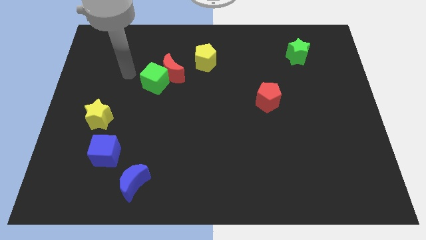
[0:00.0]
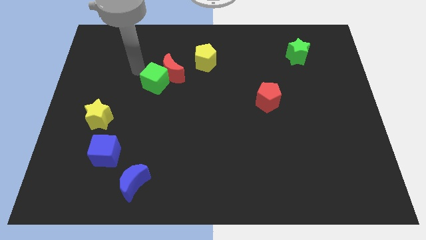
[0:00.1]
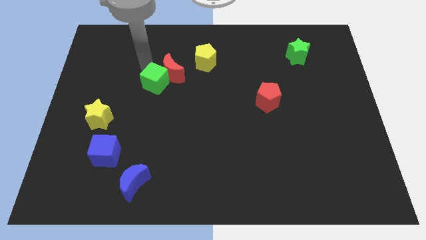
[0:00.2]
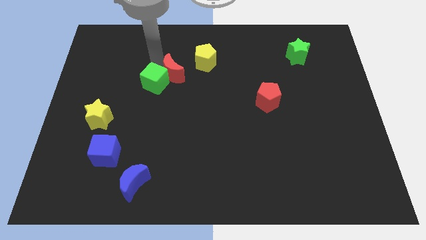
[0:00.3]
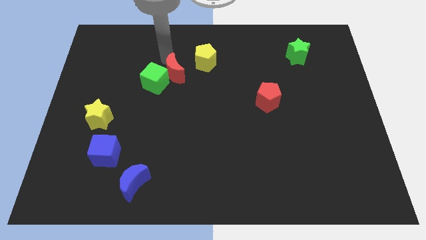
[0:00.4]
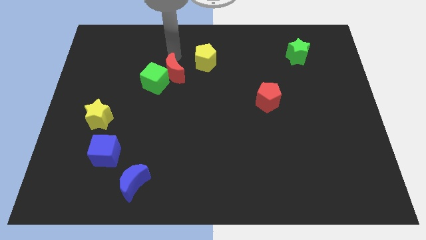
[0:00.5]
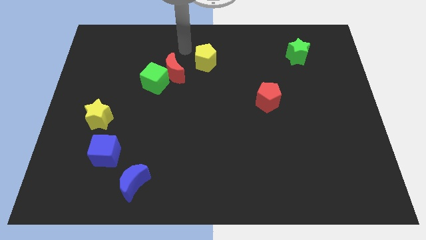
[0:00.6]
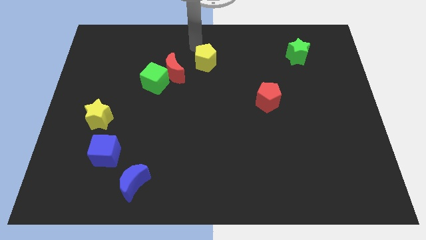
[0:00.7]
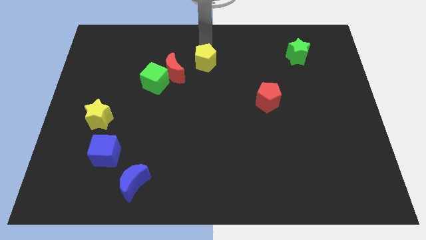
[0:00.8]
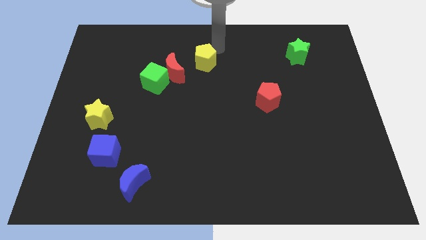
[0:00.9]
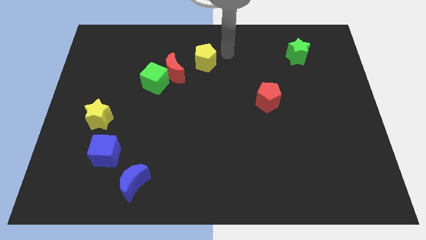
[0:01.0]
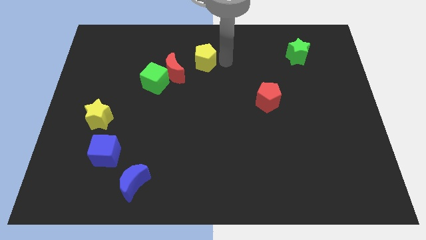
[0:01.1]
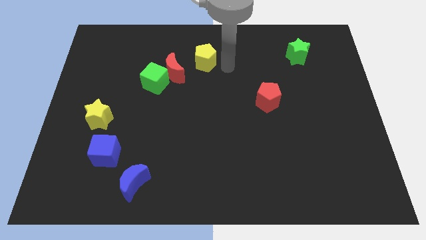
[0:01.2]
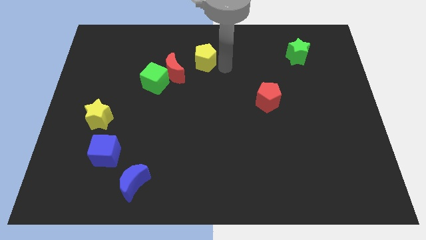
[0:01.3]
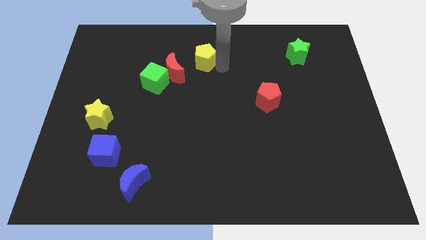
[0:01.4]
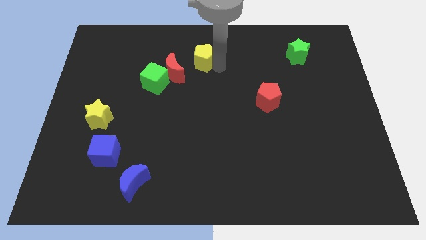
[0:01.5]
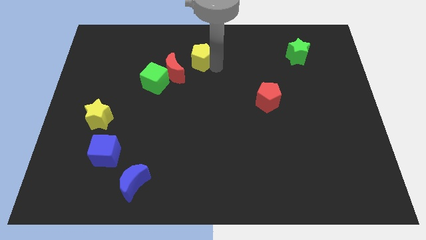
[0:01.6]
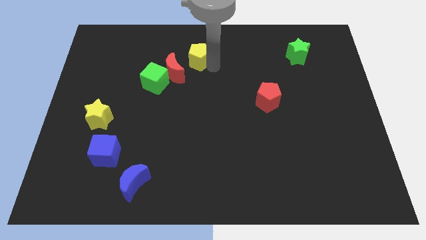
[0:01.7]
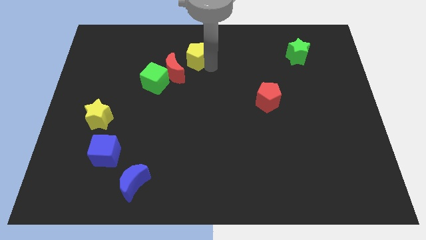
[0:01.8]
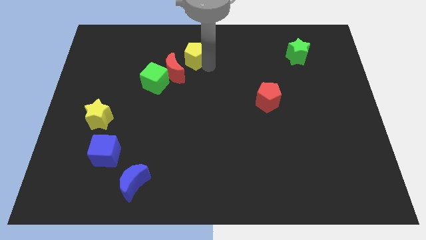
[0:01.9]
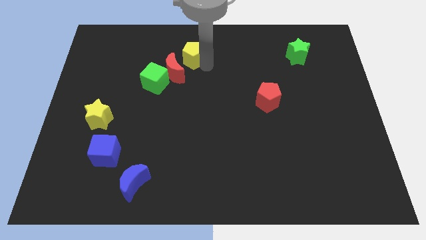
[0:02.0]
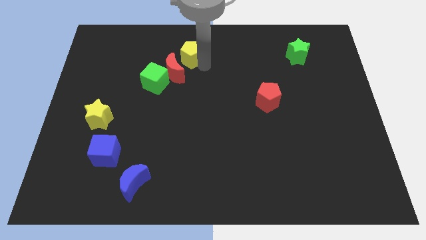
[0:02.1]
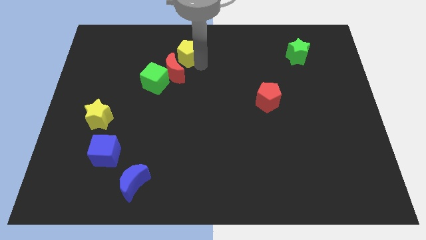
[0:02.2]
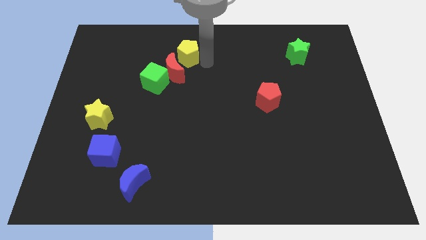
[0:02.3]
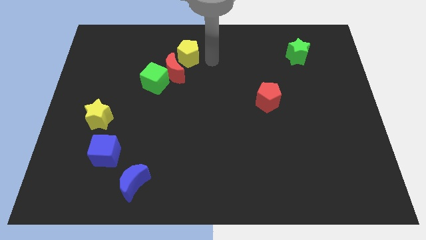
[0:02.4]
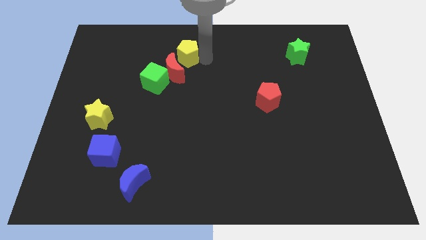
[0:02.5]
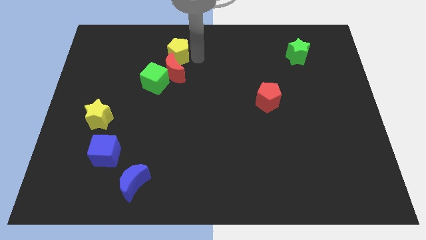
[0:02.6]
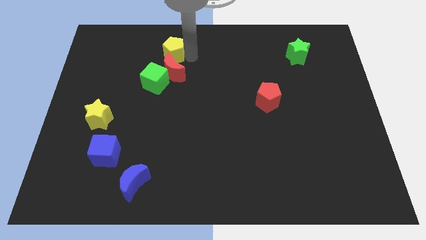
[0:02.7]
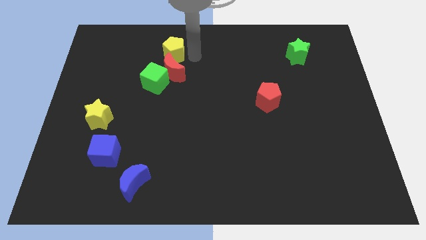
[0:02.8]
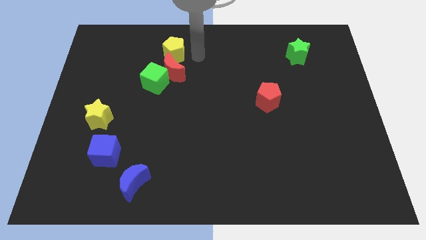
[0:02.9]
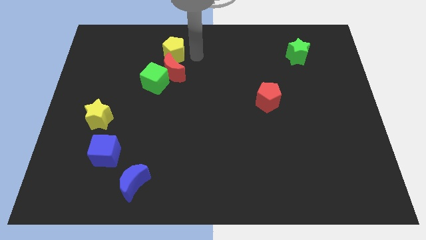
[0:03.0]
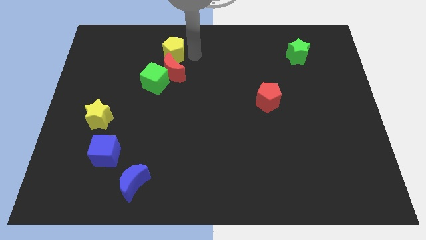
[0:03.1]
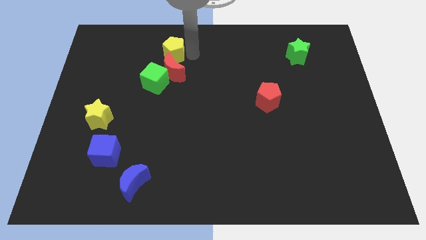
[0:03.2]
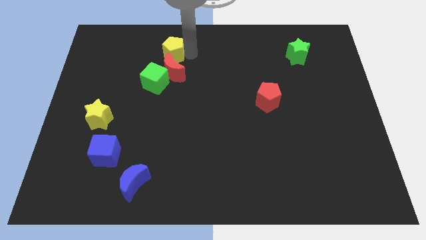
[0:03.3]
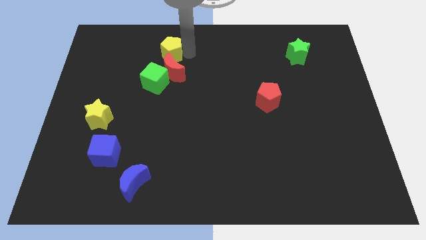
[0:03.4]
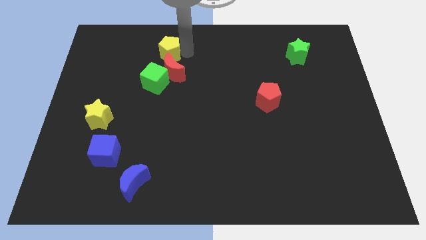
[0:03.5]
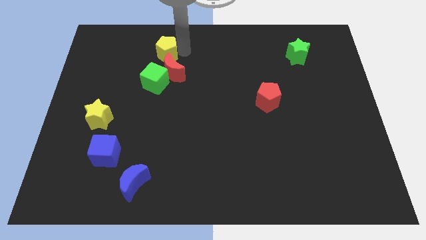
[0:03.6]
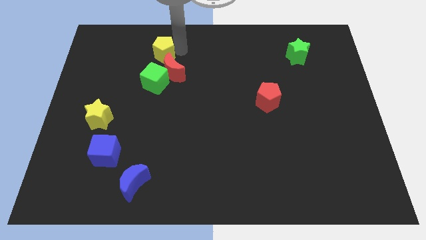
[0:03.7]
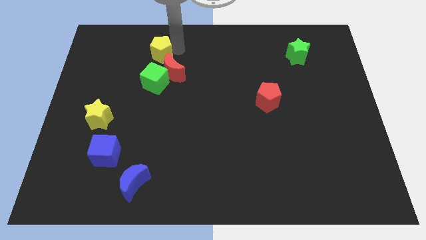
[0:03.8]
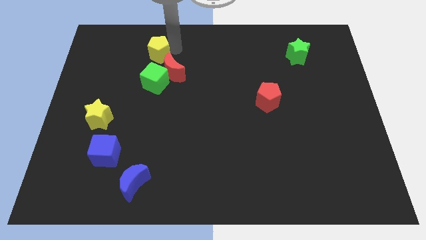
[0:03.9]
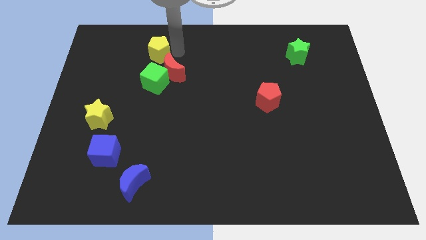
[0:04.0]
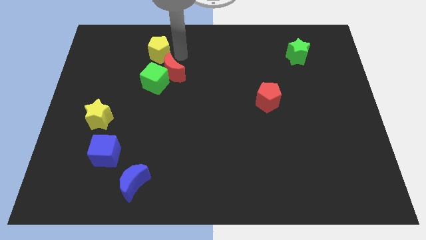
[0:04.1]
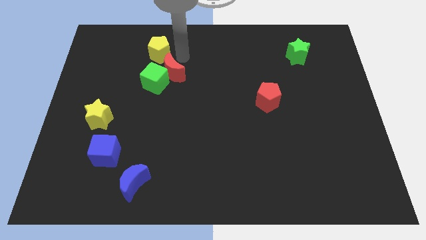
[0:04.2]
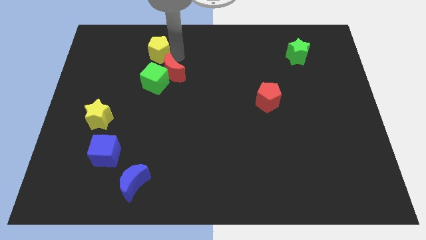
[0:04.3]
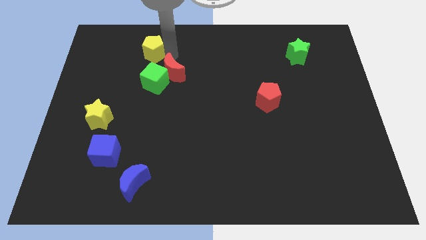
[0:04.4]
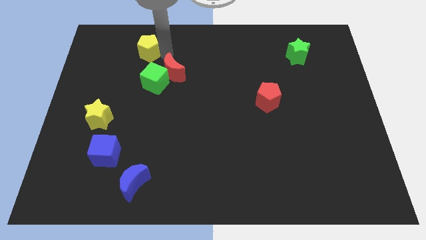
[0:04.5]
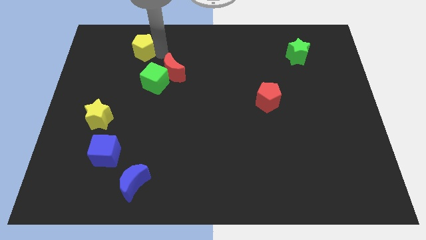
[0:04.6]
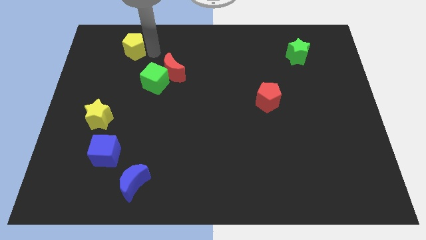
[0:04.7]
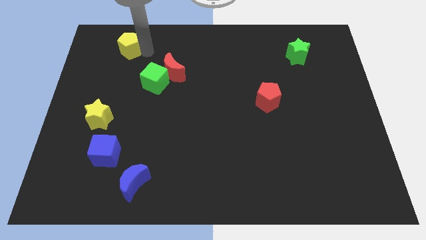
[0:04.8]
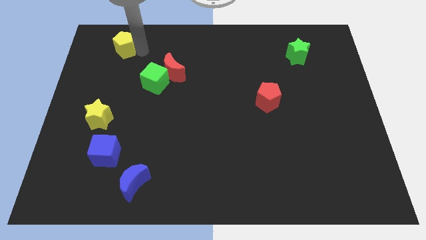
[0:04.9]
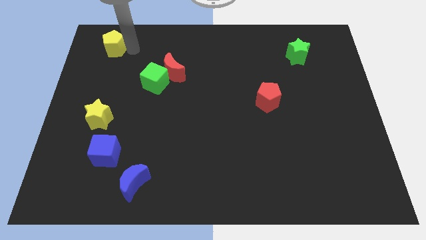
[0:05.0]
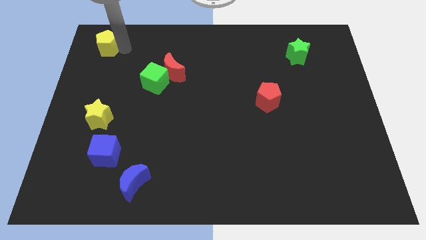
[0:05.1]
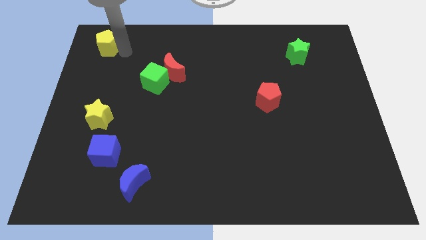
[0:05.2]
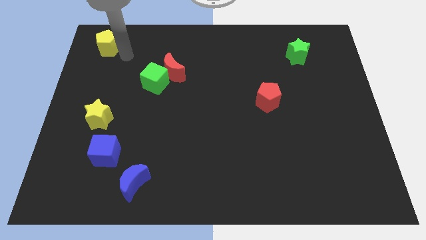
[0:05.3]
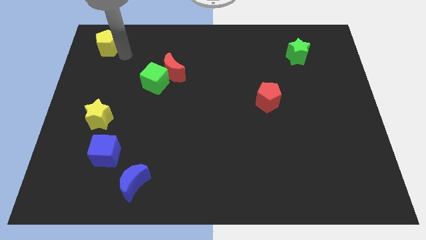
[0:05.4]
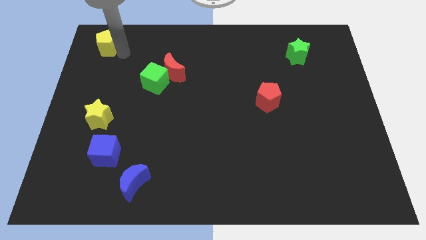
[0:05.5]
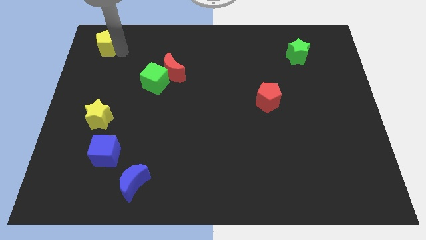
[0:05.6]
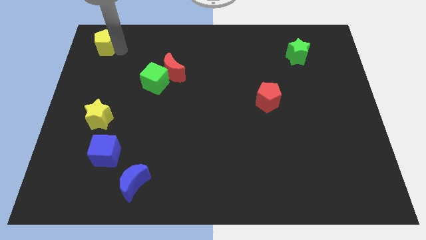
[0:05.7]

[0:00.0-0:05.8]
put the yellow pentagon to the top left of the board
